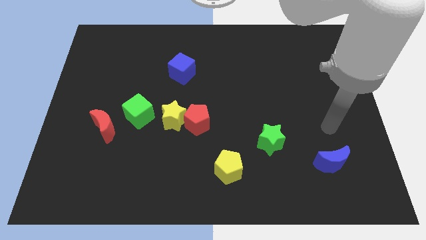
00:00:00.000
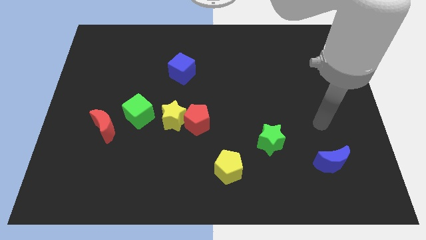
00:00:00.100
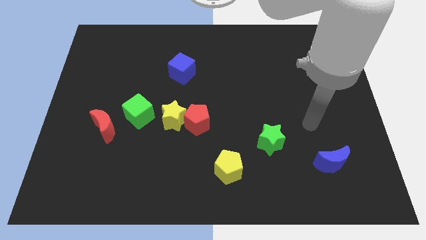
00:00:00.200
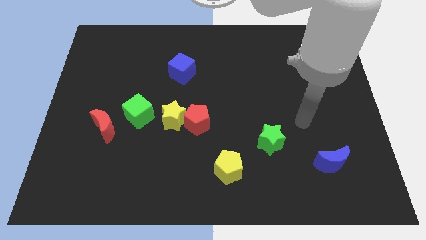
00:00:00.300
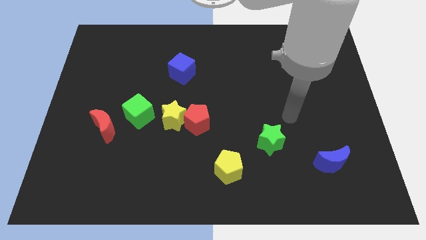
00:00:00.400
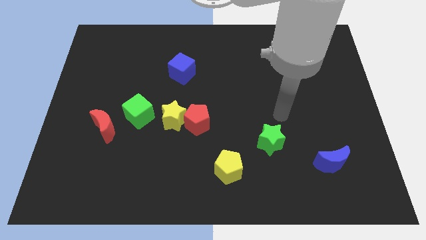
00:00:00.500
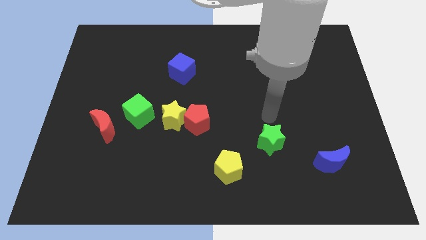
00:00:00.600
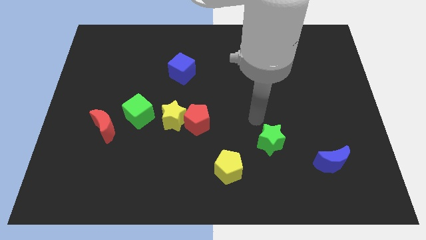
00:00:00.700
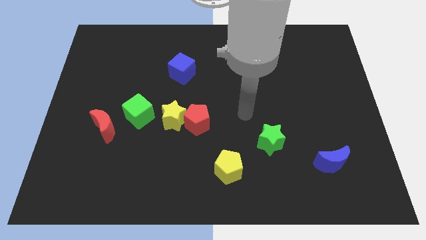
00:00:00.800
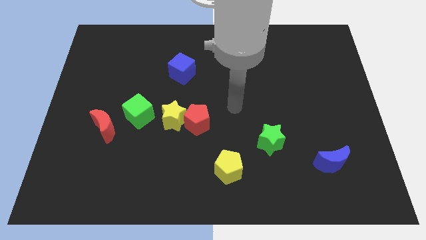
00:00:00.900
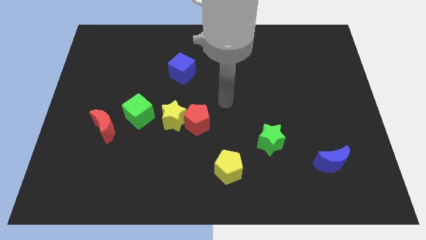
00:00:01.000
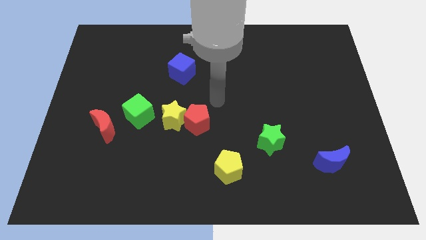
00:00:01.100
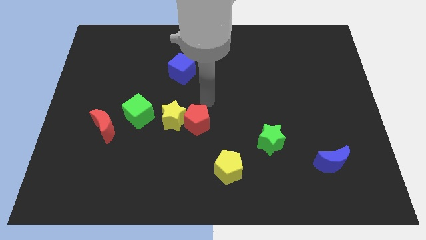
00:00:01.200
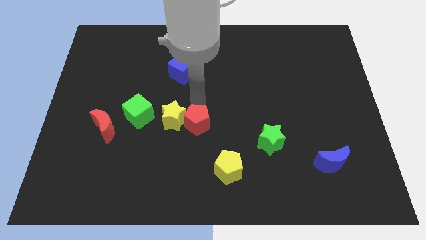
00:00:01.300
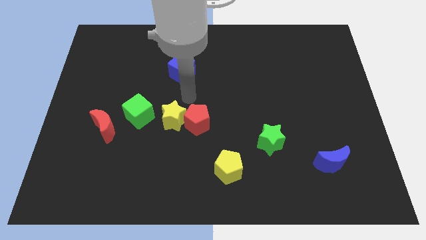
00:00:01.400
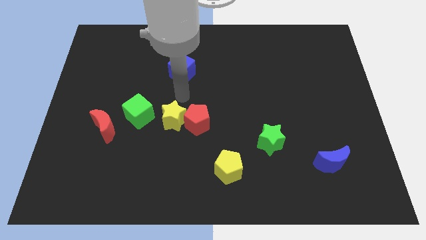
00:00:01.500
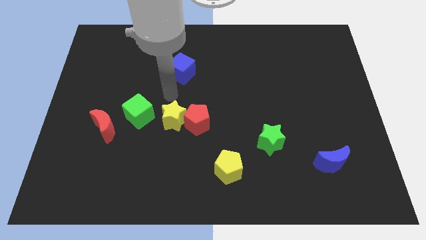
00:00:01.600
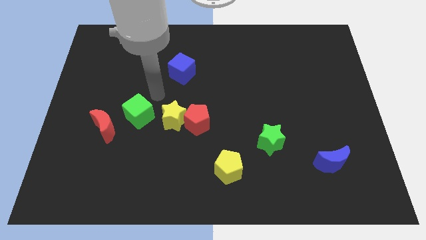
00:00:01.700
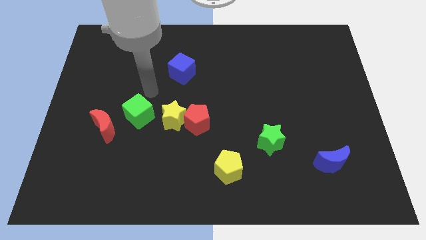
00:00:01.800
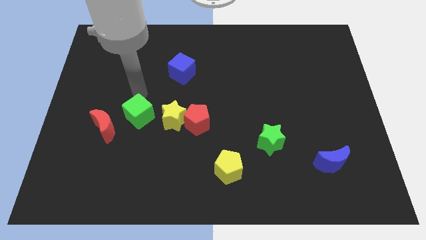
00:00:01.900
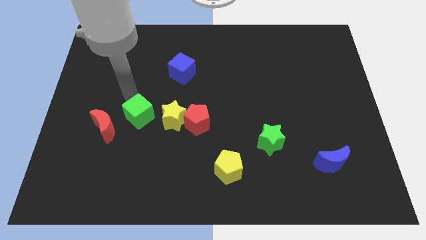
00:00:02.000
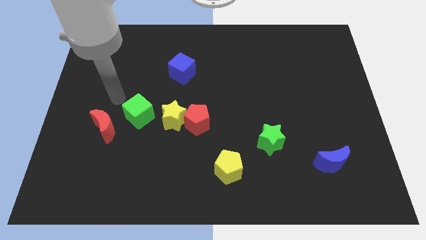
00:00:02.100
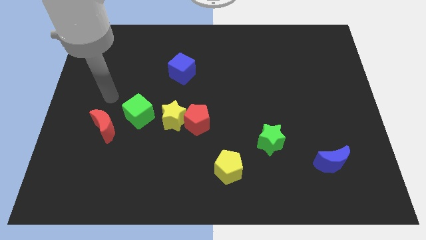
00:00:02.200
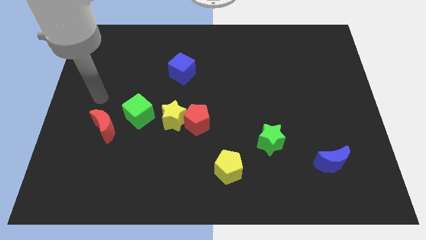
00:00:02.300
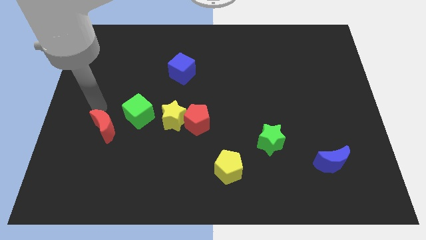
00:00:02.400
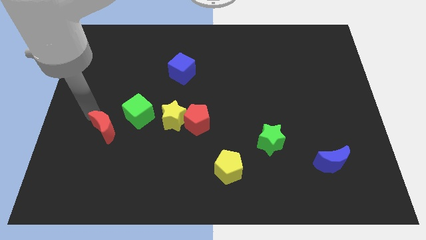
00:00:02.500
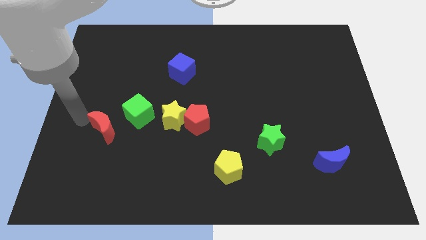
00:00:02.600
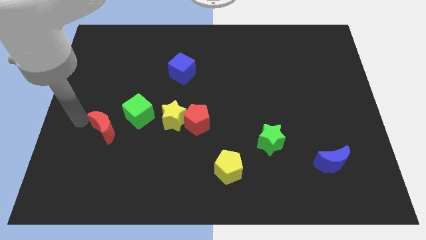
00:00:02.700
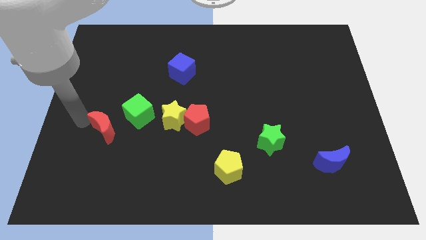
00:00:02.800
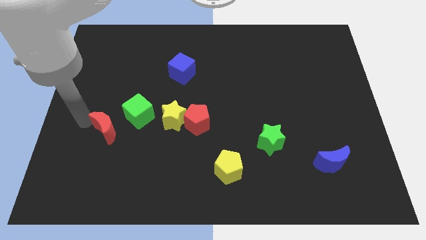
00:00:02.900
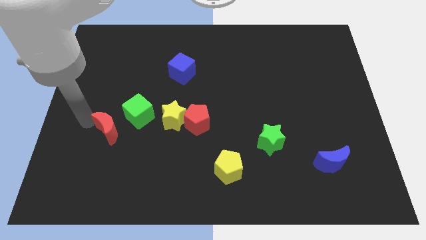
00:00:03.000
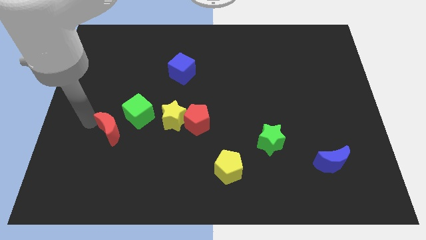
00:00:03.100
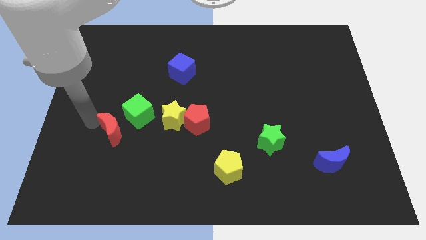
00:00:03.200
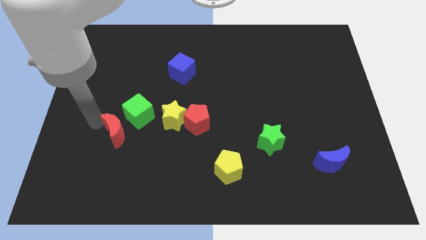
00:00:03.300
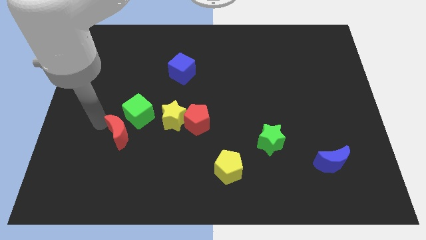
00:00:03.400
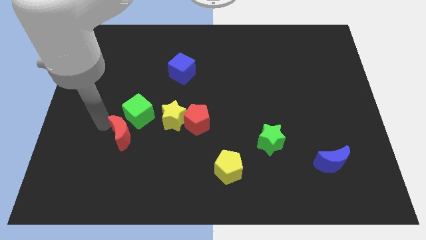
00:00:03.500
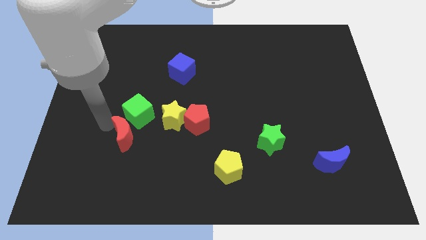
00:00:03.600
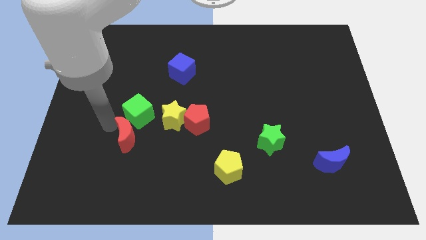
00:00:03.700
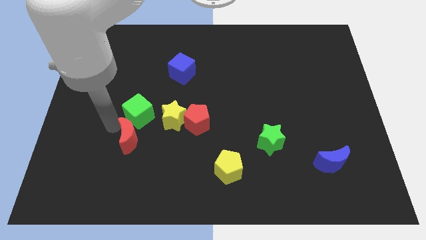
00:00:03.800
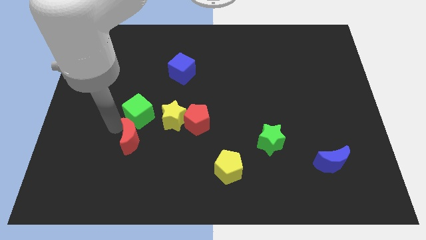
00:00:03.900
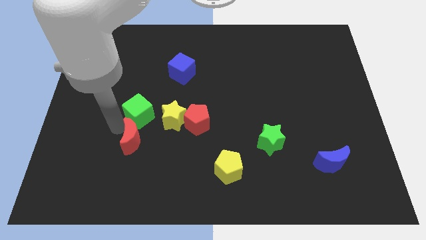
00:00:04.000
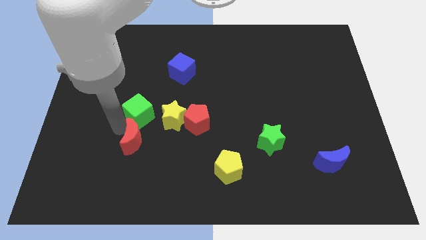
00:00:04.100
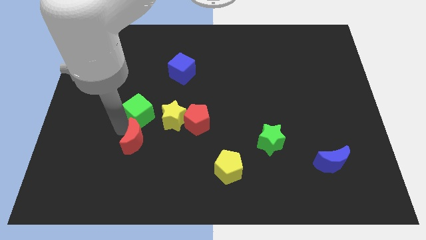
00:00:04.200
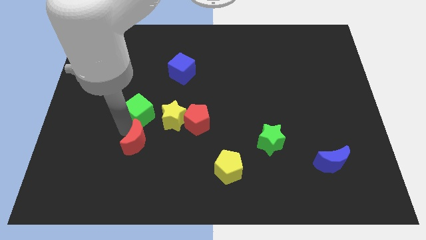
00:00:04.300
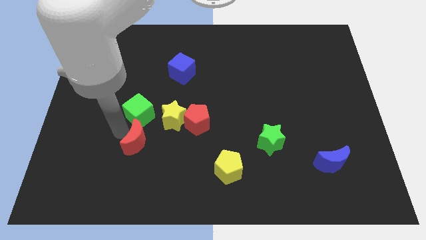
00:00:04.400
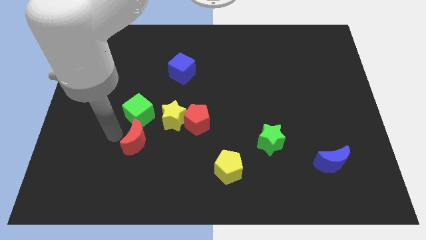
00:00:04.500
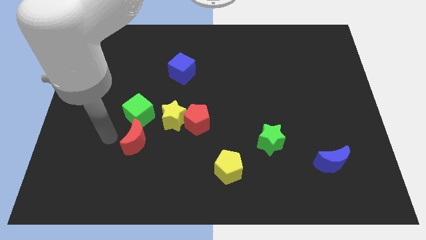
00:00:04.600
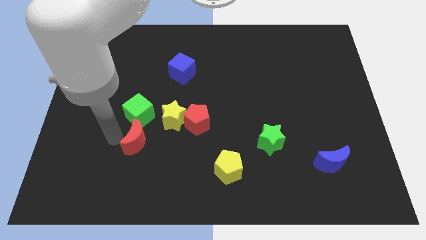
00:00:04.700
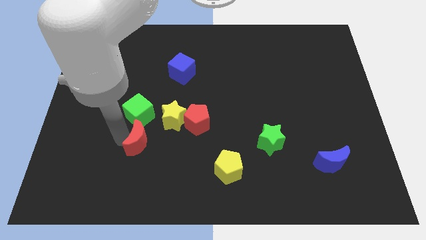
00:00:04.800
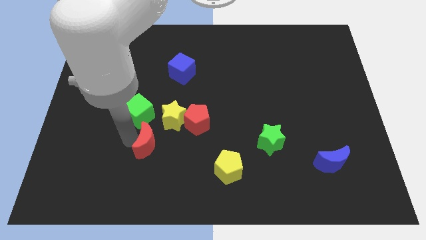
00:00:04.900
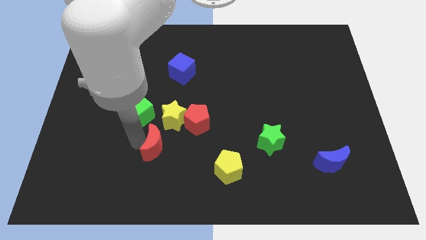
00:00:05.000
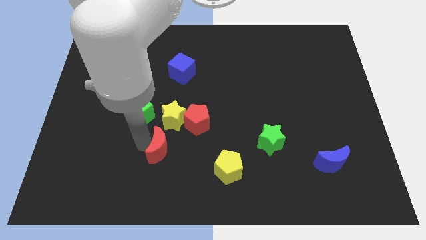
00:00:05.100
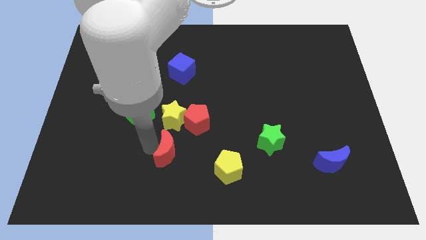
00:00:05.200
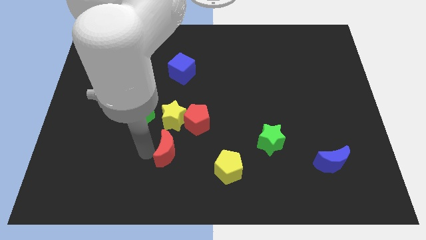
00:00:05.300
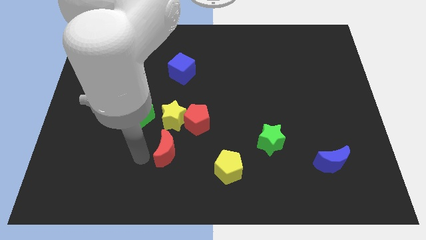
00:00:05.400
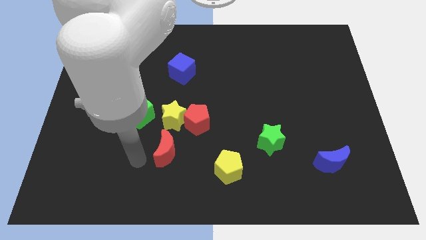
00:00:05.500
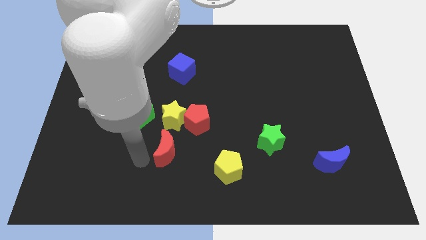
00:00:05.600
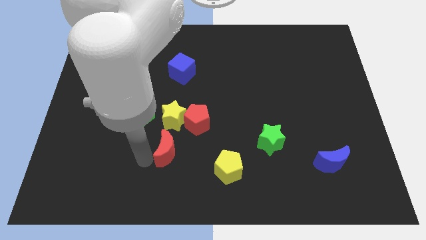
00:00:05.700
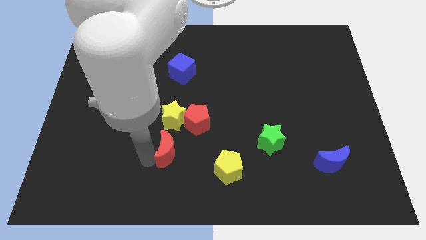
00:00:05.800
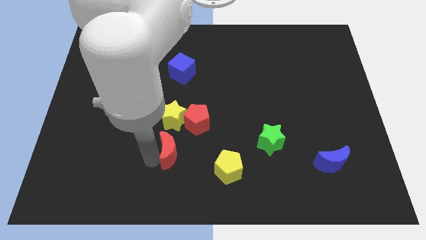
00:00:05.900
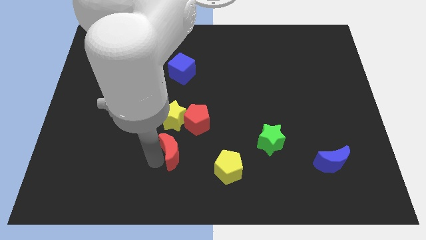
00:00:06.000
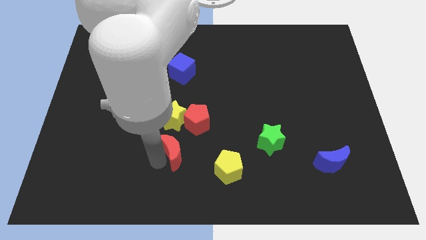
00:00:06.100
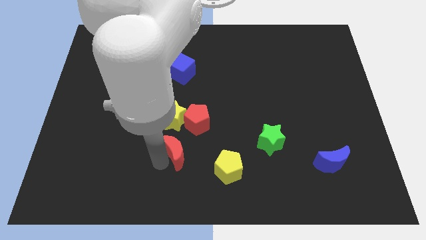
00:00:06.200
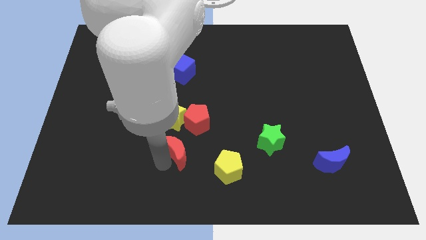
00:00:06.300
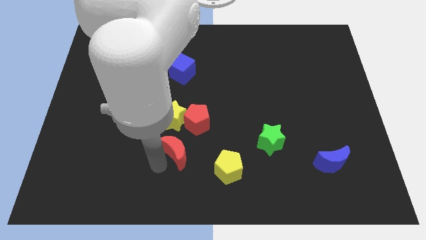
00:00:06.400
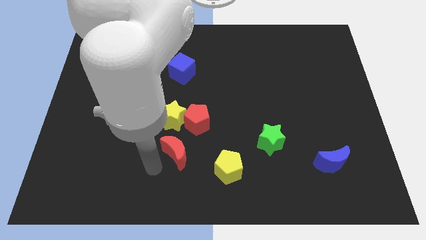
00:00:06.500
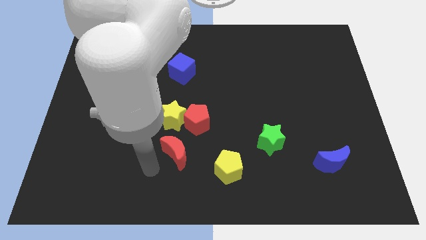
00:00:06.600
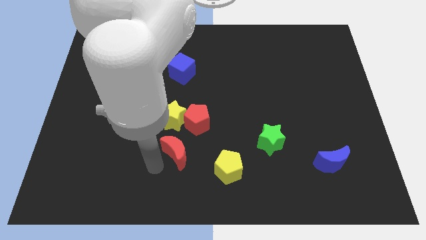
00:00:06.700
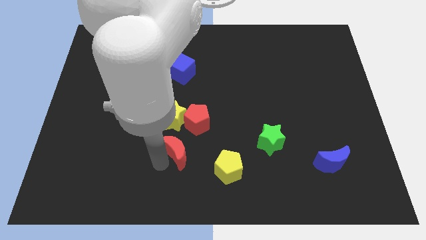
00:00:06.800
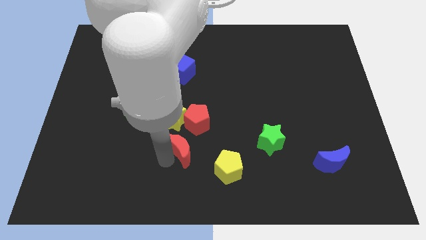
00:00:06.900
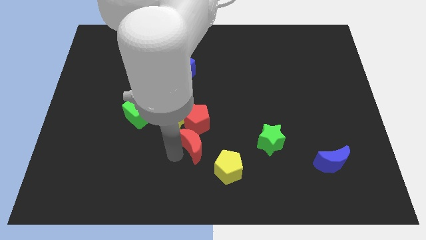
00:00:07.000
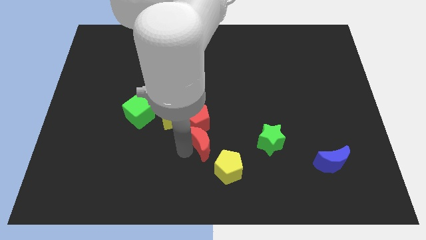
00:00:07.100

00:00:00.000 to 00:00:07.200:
move the red moon right

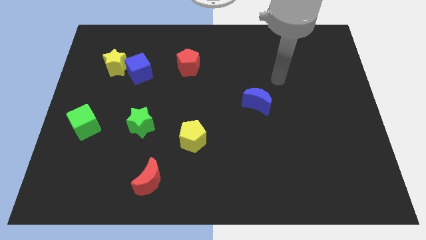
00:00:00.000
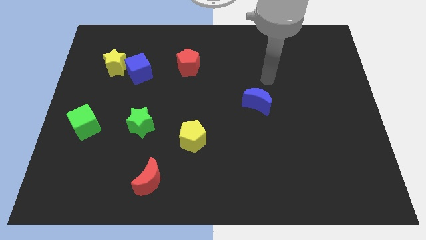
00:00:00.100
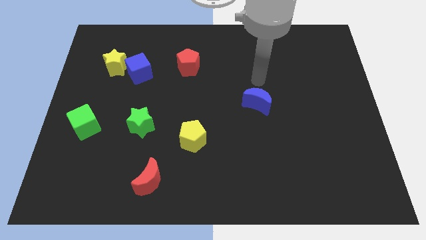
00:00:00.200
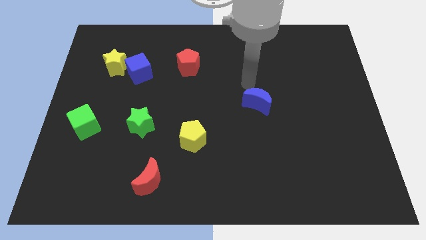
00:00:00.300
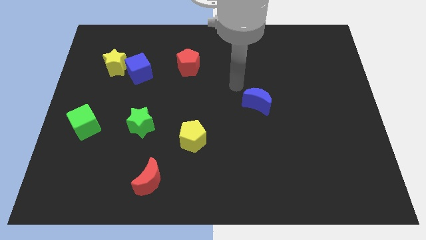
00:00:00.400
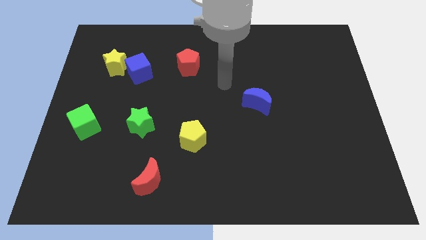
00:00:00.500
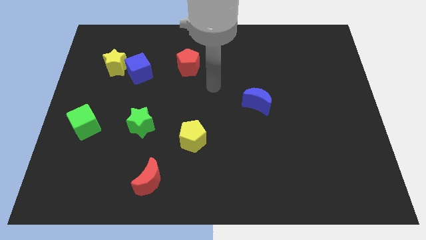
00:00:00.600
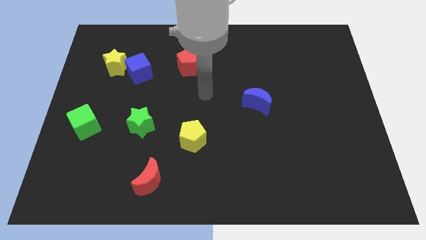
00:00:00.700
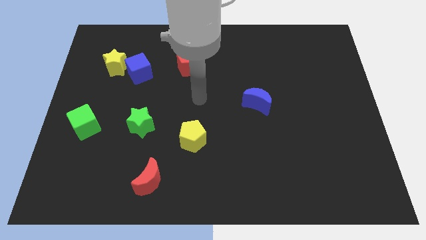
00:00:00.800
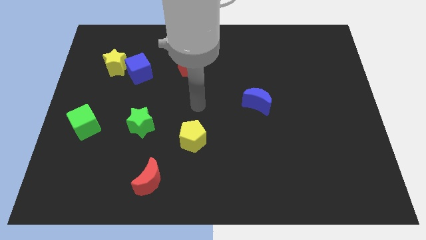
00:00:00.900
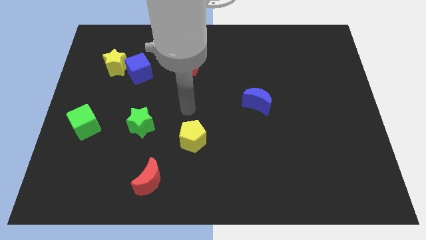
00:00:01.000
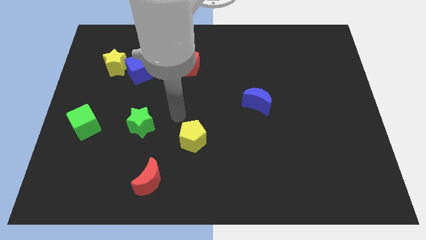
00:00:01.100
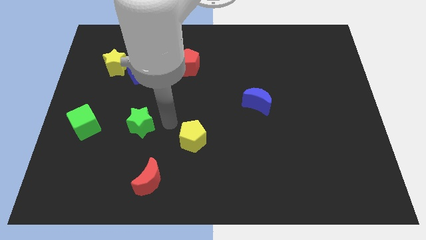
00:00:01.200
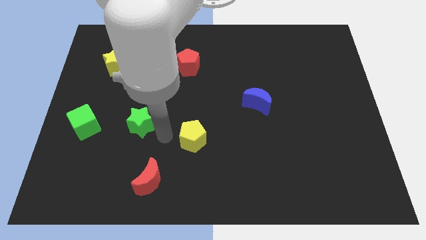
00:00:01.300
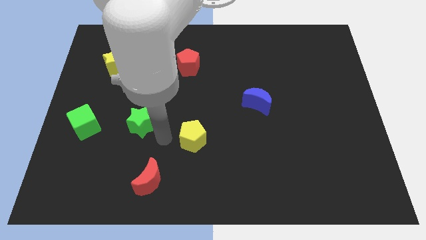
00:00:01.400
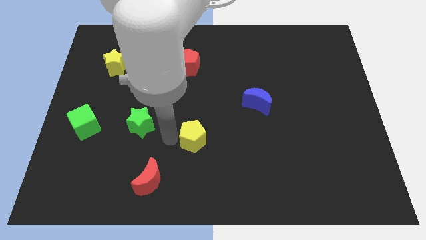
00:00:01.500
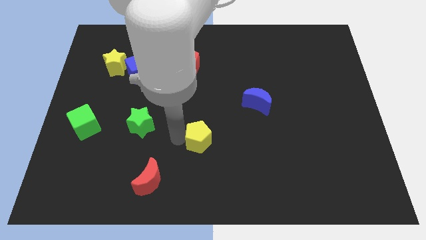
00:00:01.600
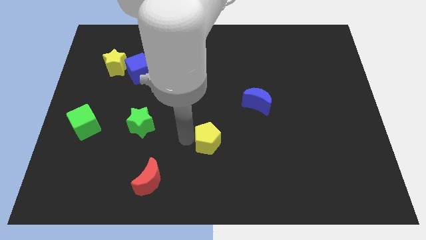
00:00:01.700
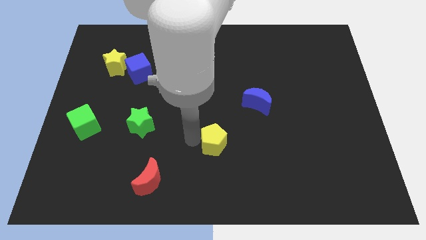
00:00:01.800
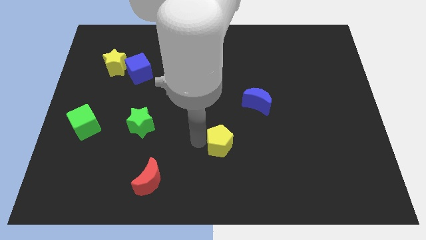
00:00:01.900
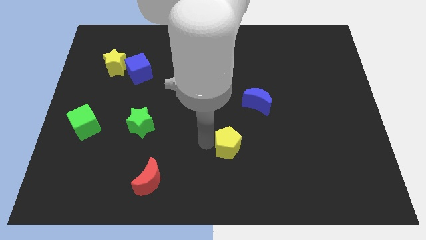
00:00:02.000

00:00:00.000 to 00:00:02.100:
slightly slide the yellow pentagon to the right
